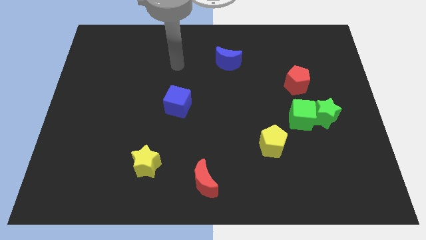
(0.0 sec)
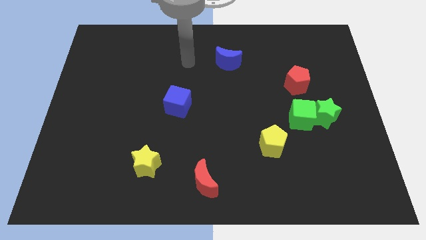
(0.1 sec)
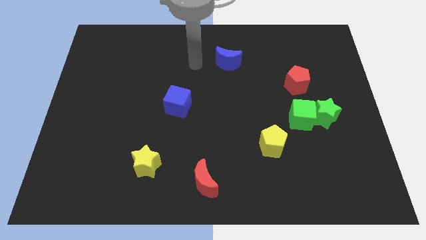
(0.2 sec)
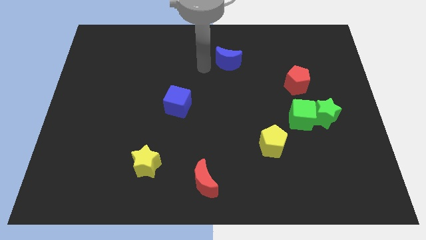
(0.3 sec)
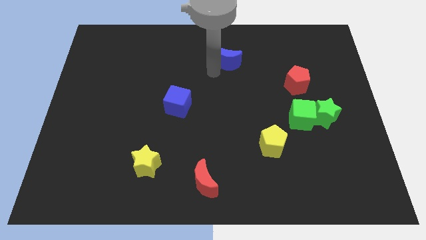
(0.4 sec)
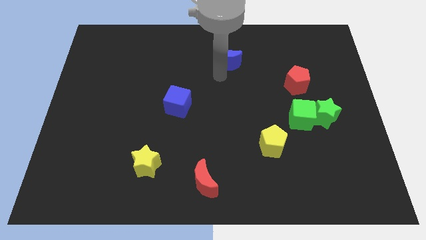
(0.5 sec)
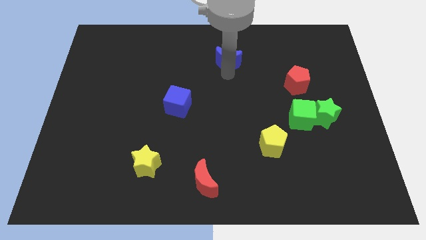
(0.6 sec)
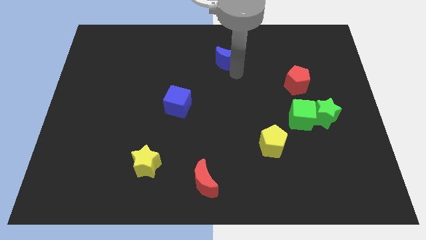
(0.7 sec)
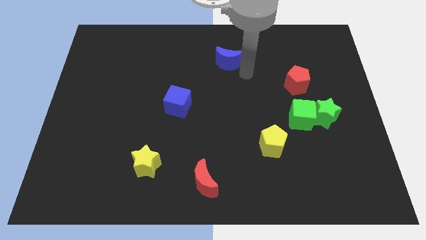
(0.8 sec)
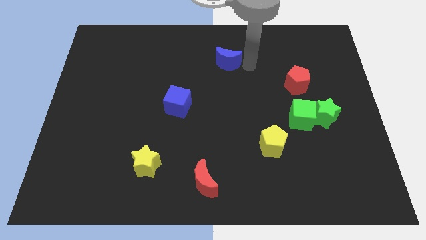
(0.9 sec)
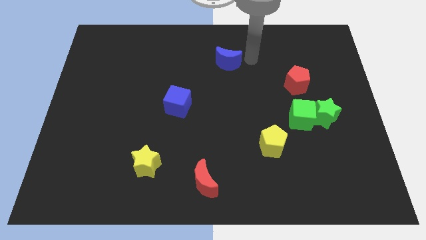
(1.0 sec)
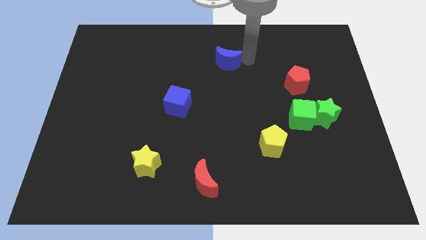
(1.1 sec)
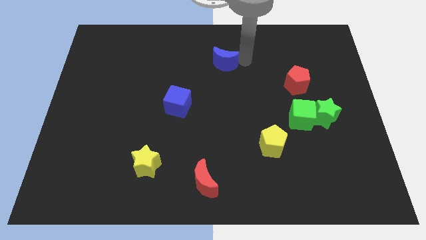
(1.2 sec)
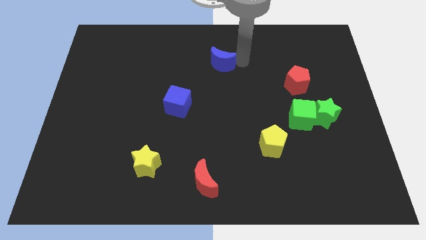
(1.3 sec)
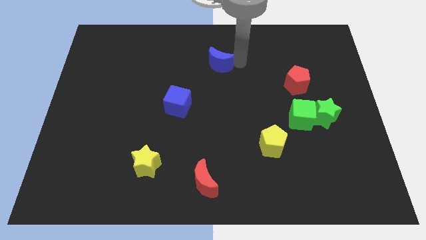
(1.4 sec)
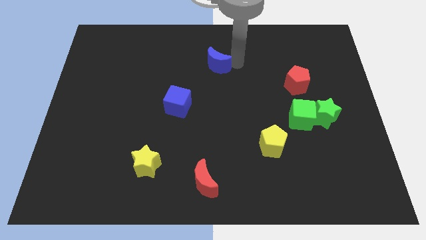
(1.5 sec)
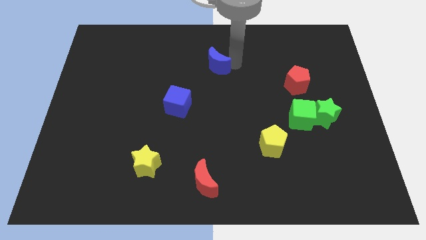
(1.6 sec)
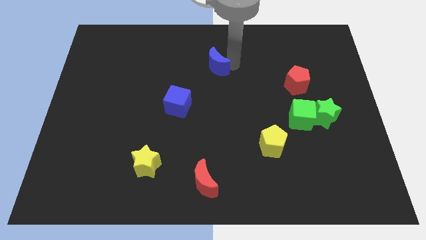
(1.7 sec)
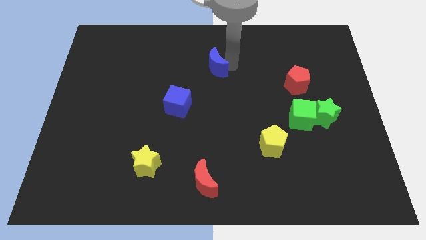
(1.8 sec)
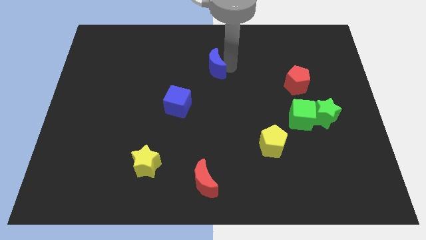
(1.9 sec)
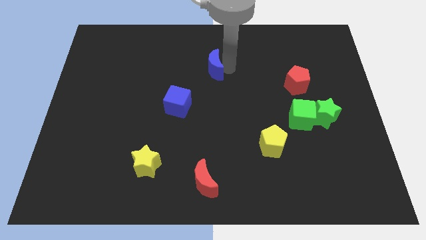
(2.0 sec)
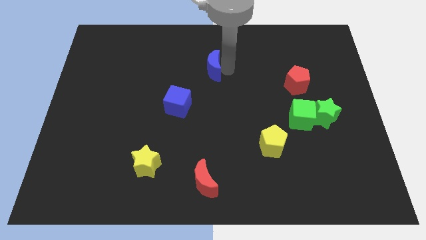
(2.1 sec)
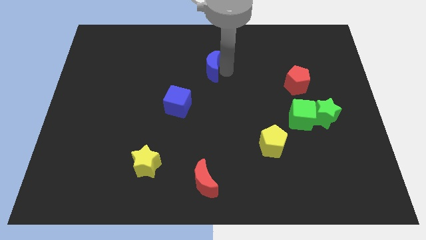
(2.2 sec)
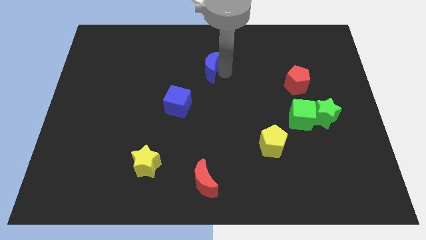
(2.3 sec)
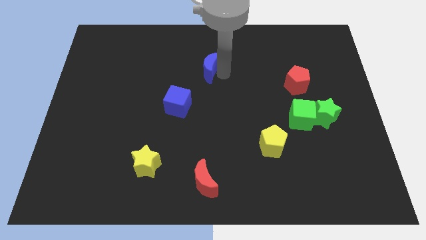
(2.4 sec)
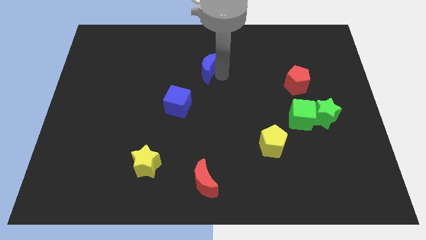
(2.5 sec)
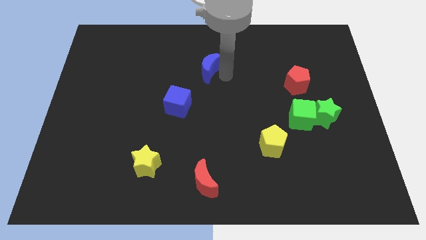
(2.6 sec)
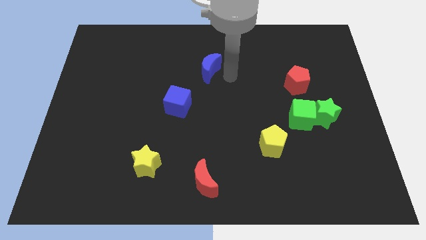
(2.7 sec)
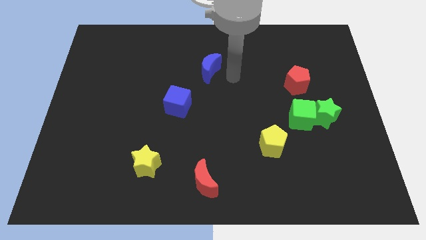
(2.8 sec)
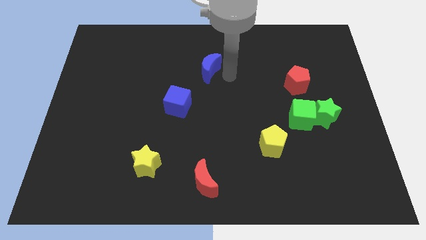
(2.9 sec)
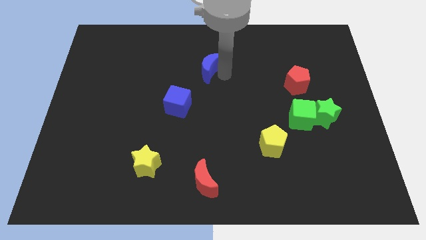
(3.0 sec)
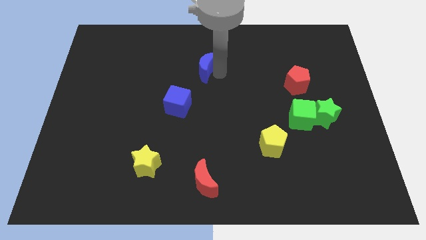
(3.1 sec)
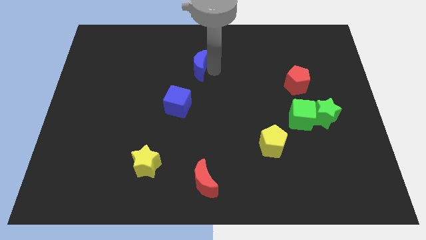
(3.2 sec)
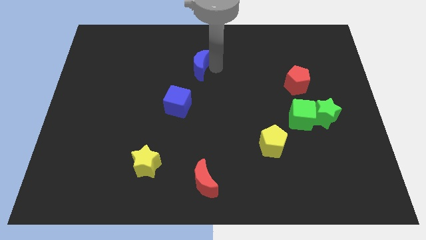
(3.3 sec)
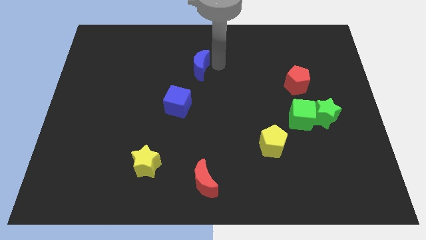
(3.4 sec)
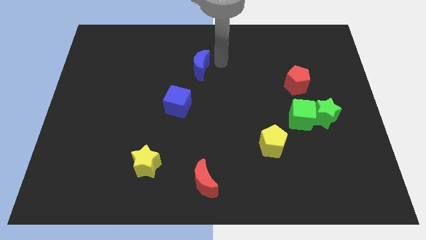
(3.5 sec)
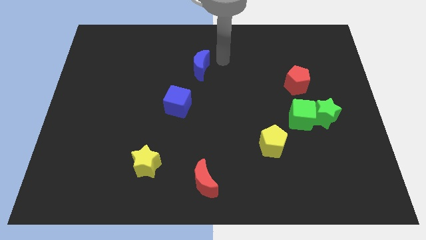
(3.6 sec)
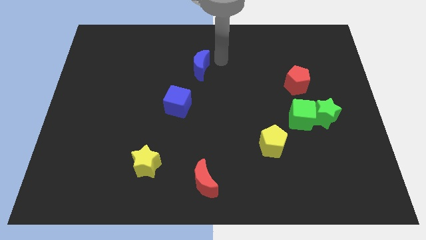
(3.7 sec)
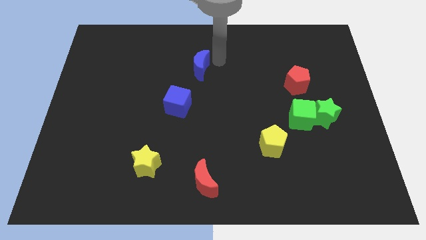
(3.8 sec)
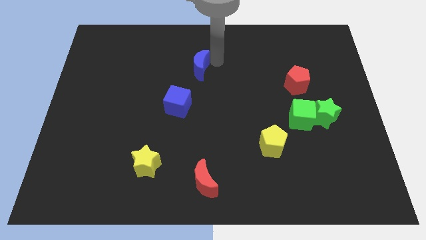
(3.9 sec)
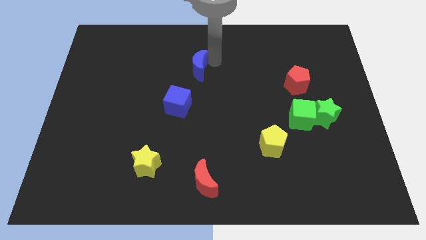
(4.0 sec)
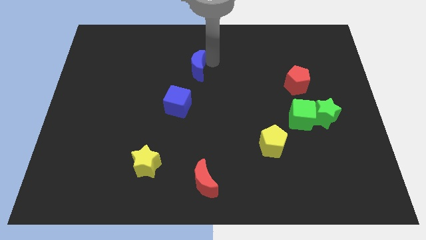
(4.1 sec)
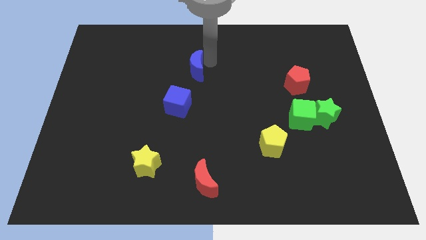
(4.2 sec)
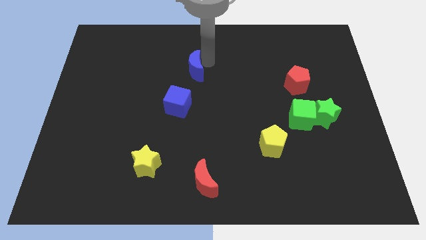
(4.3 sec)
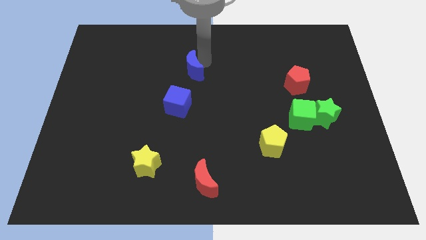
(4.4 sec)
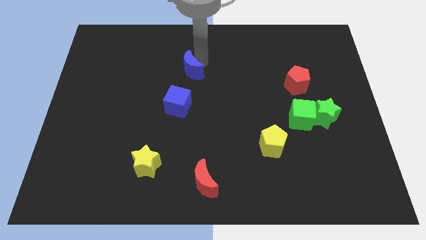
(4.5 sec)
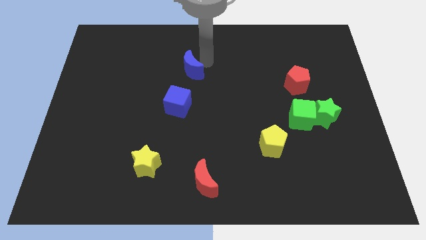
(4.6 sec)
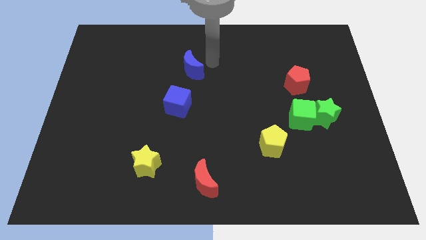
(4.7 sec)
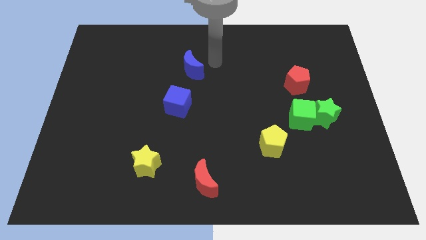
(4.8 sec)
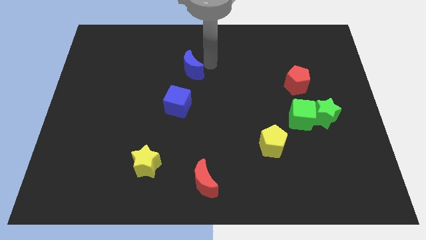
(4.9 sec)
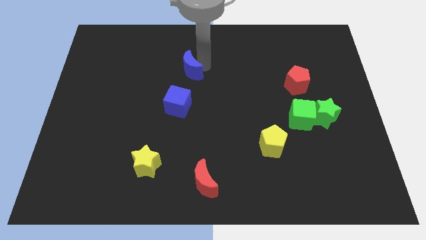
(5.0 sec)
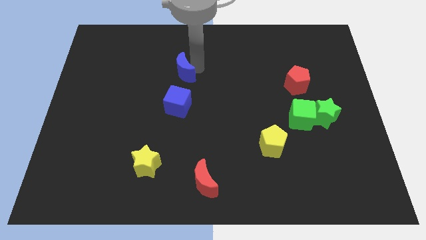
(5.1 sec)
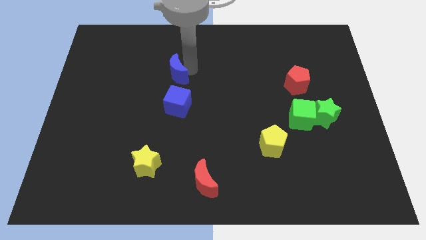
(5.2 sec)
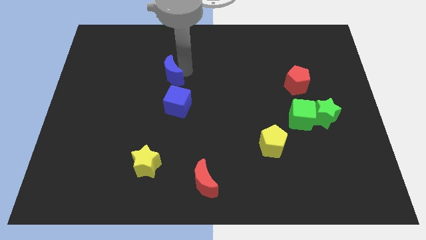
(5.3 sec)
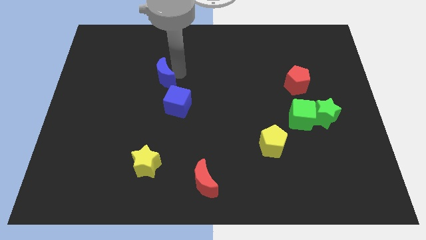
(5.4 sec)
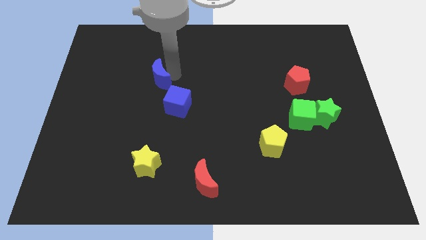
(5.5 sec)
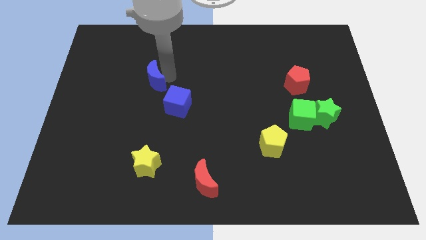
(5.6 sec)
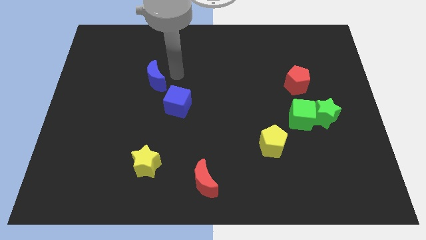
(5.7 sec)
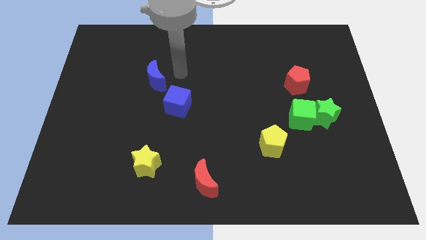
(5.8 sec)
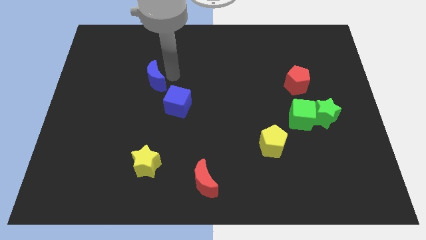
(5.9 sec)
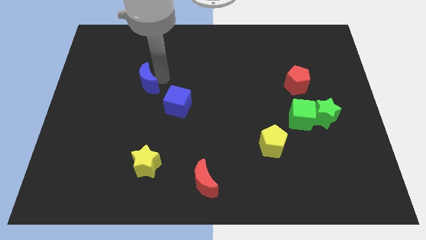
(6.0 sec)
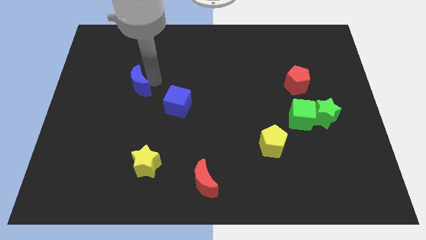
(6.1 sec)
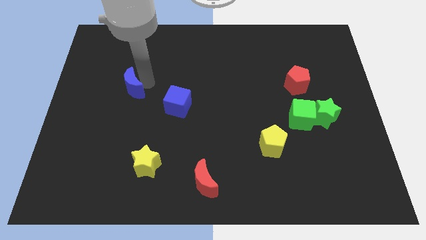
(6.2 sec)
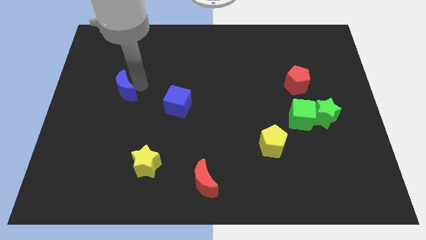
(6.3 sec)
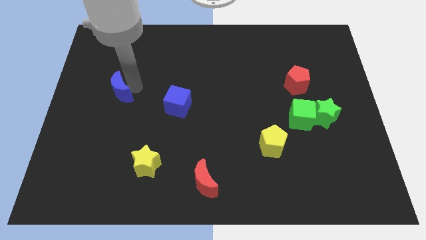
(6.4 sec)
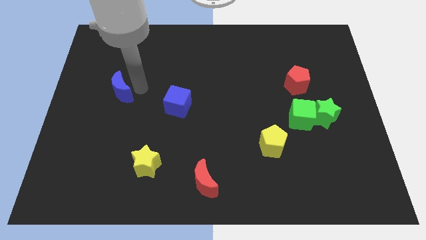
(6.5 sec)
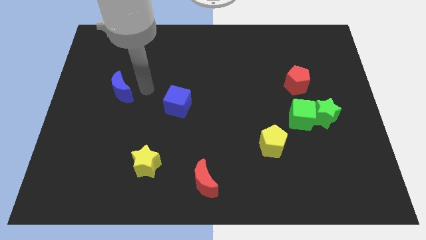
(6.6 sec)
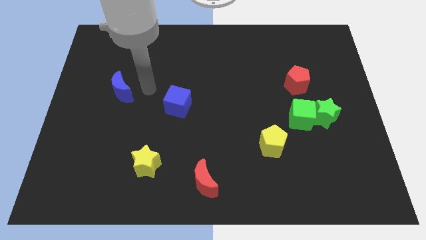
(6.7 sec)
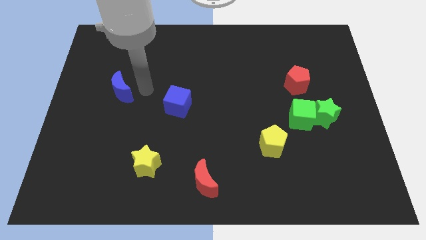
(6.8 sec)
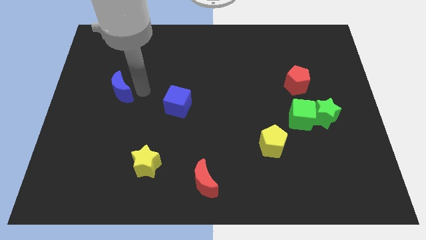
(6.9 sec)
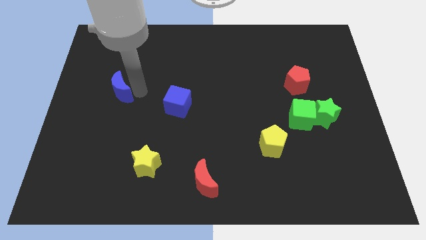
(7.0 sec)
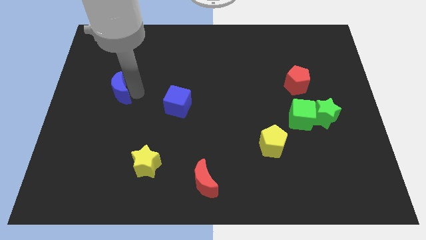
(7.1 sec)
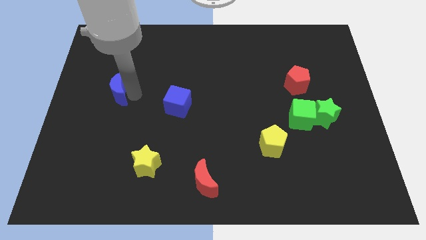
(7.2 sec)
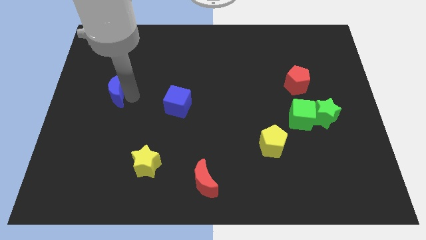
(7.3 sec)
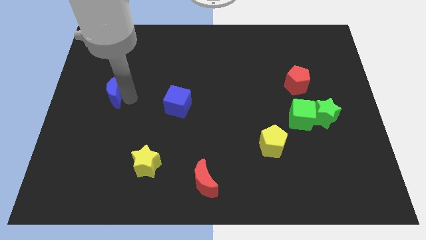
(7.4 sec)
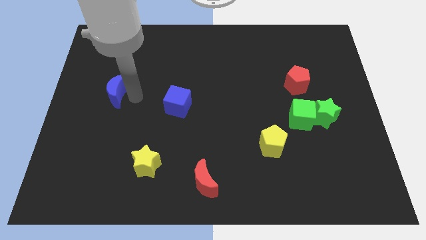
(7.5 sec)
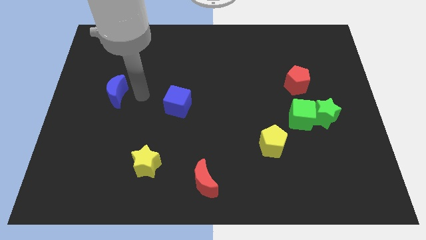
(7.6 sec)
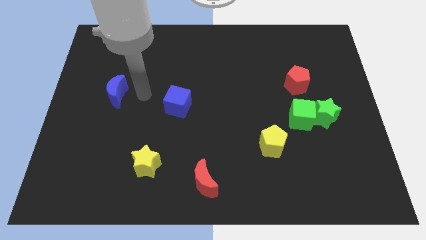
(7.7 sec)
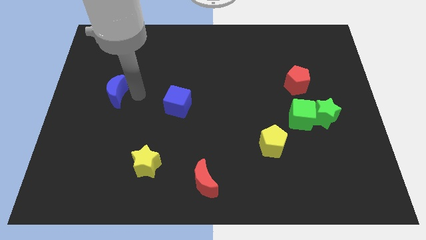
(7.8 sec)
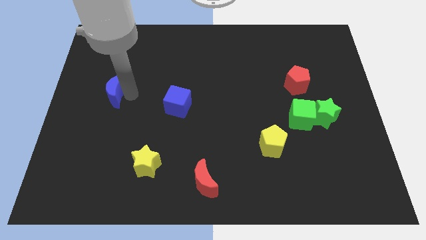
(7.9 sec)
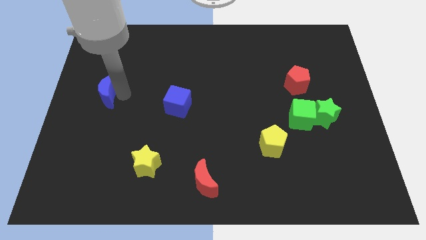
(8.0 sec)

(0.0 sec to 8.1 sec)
push the blue moon to the left side of the board
